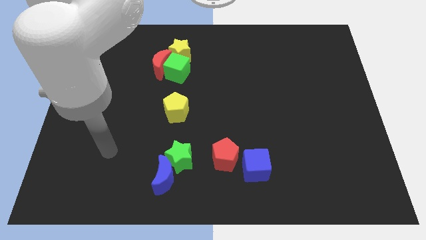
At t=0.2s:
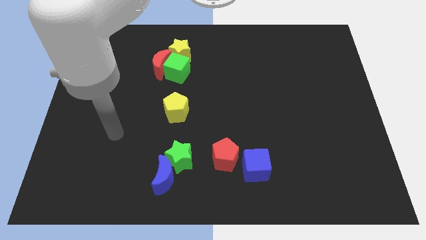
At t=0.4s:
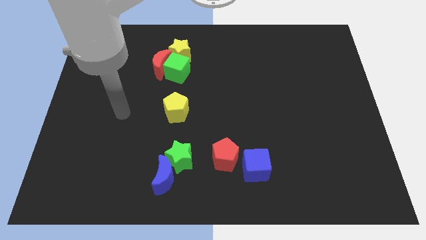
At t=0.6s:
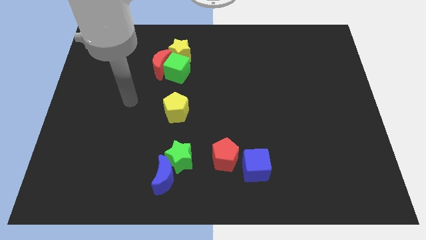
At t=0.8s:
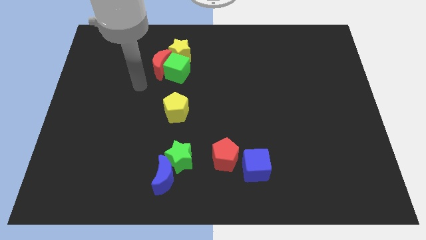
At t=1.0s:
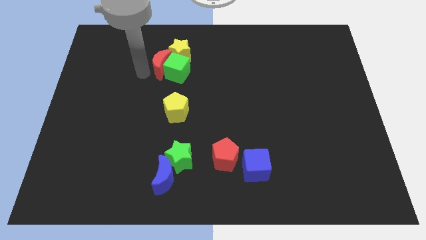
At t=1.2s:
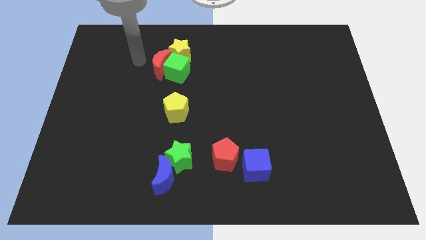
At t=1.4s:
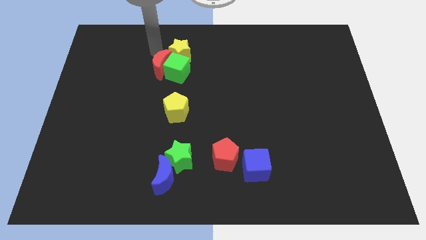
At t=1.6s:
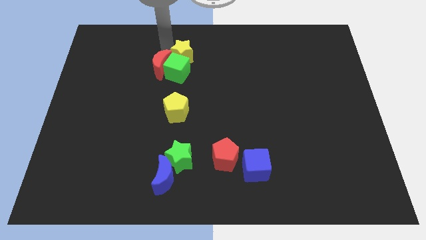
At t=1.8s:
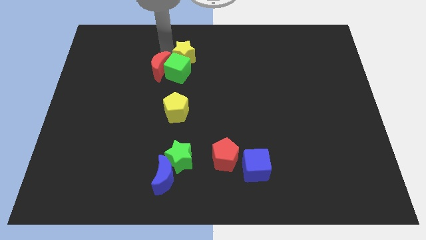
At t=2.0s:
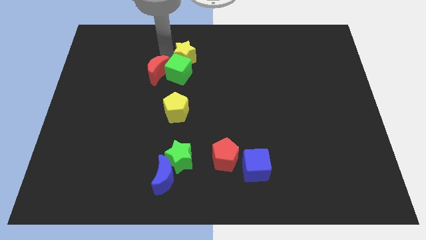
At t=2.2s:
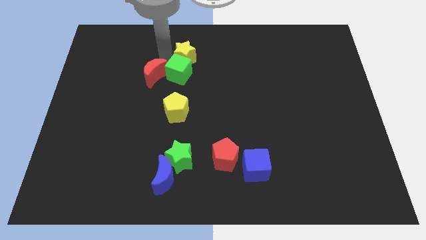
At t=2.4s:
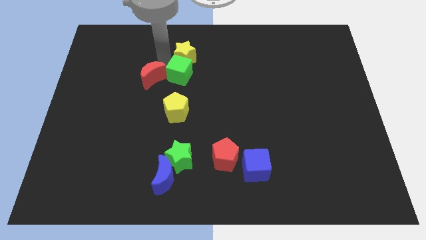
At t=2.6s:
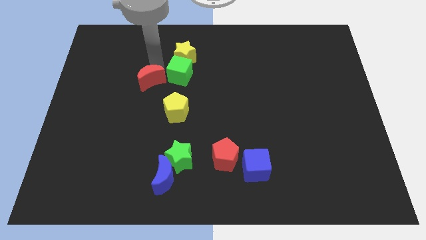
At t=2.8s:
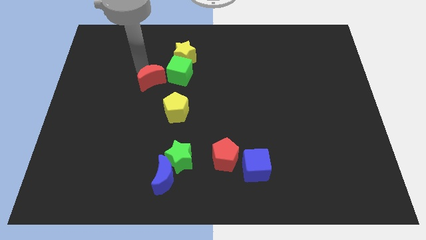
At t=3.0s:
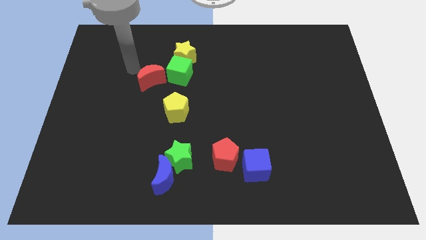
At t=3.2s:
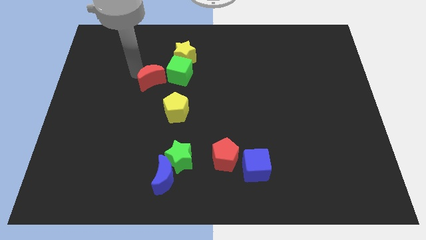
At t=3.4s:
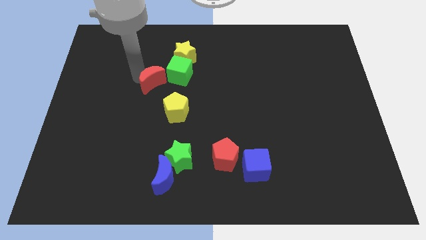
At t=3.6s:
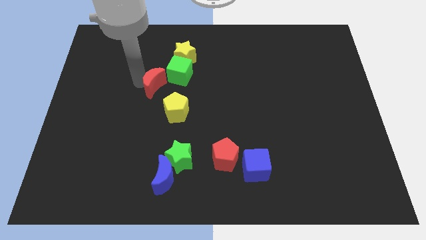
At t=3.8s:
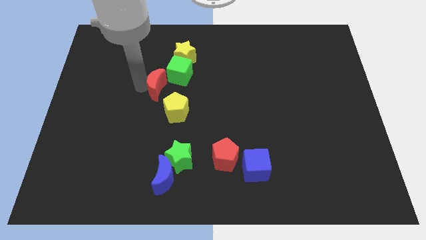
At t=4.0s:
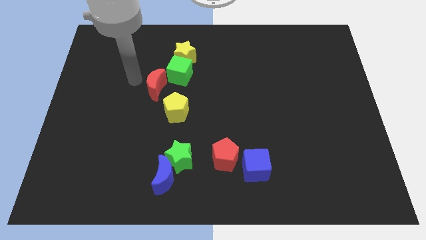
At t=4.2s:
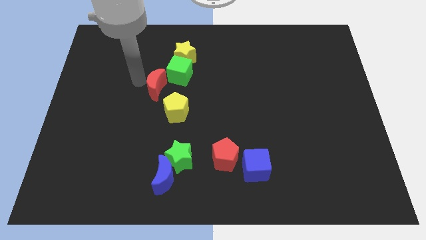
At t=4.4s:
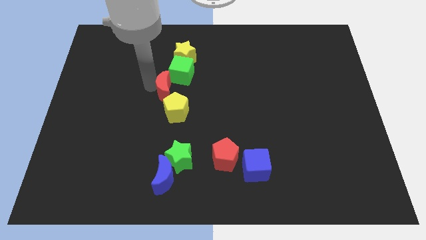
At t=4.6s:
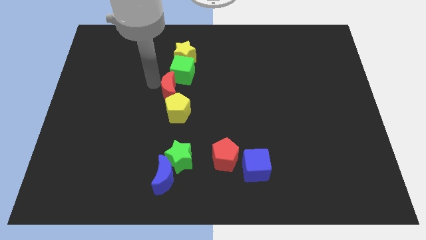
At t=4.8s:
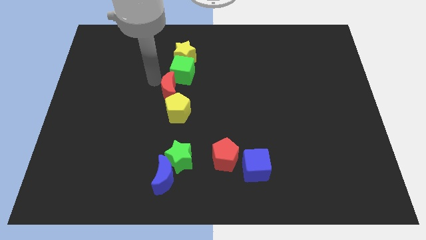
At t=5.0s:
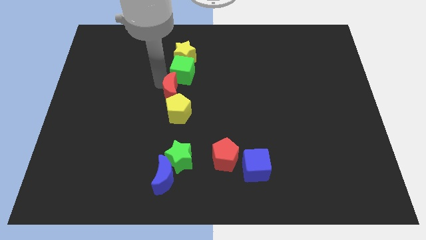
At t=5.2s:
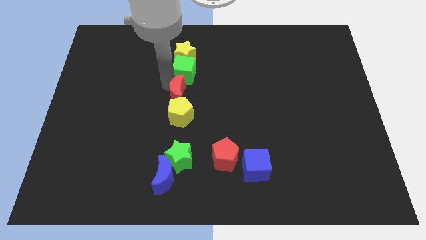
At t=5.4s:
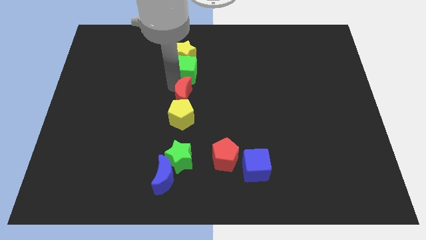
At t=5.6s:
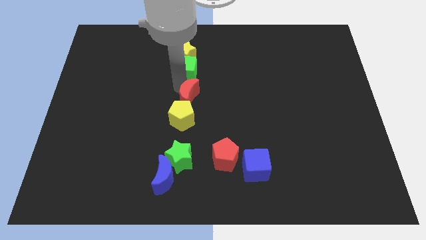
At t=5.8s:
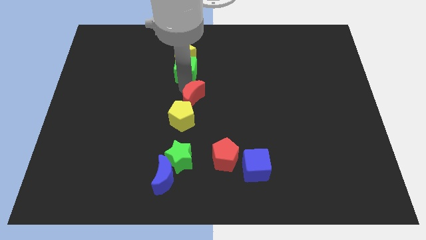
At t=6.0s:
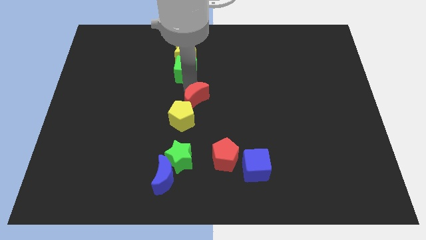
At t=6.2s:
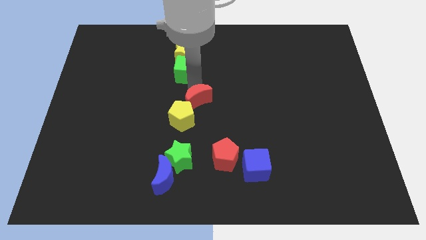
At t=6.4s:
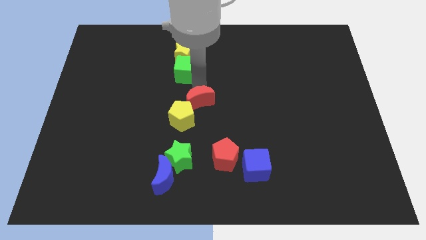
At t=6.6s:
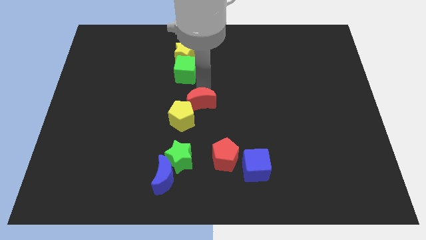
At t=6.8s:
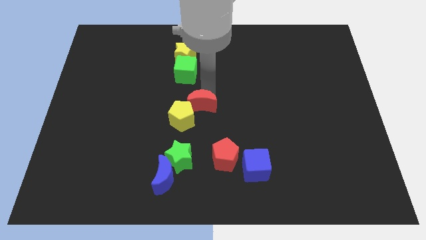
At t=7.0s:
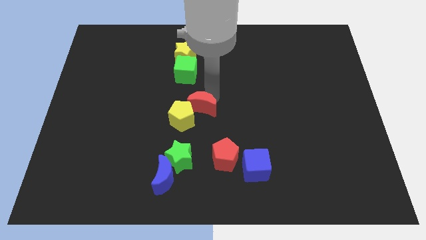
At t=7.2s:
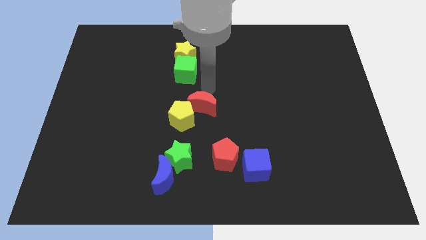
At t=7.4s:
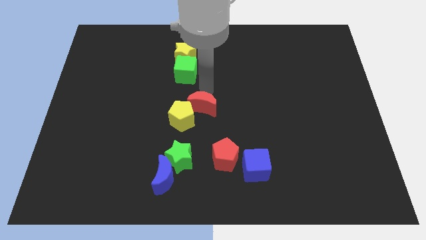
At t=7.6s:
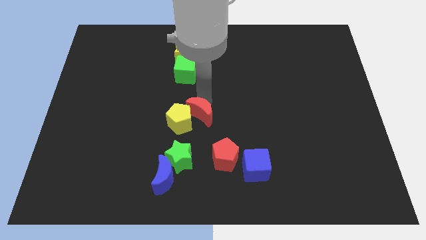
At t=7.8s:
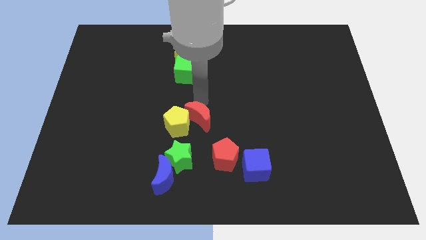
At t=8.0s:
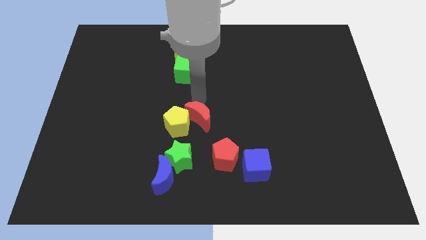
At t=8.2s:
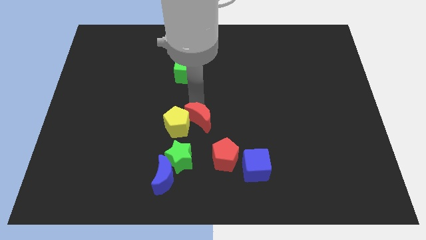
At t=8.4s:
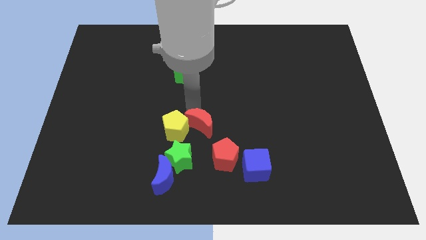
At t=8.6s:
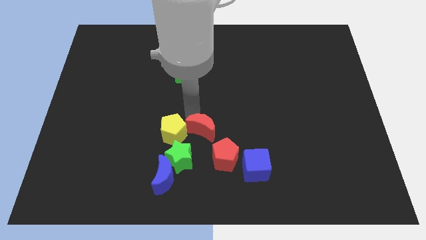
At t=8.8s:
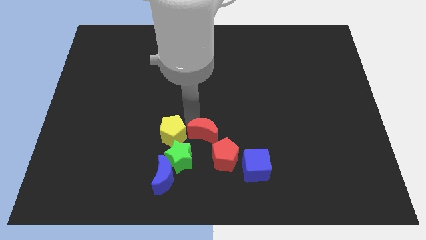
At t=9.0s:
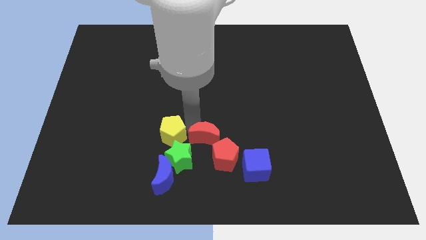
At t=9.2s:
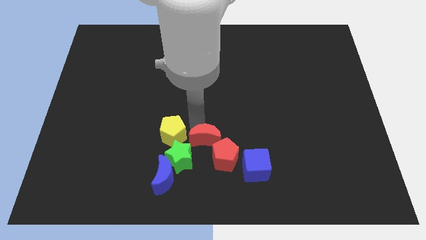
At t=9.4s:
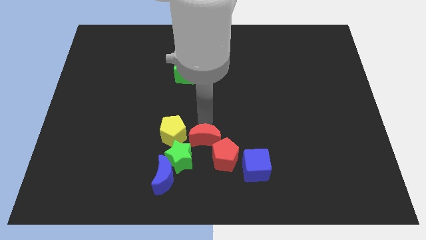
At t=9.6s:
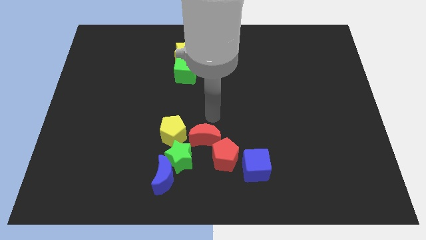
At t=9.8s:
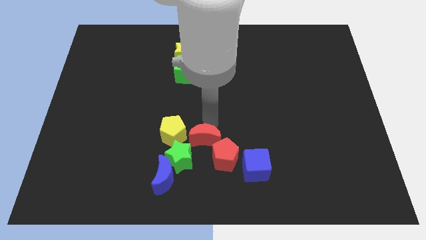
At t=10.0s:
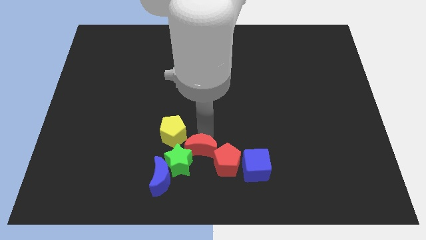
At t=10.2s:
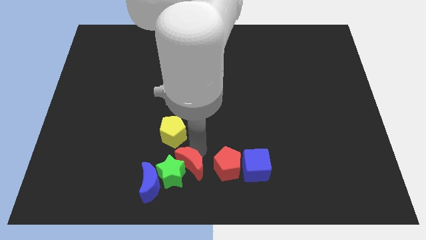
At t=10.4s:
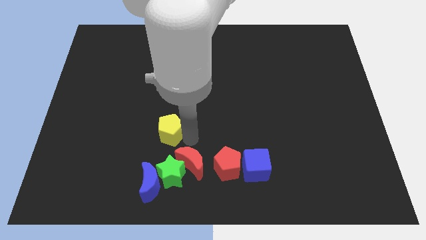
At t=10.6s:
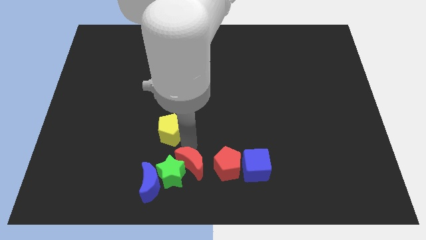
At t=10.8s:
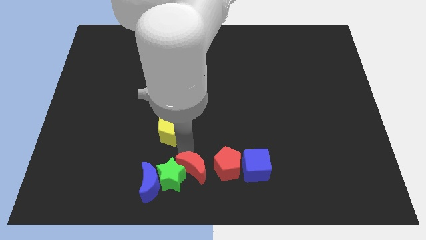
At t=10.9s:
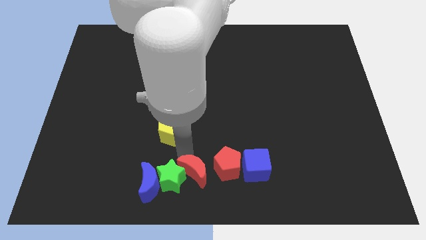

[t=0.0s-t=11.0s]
move the red moon diagonally down and to the right of the green star

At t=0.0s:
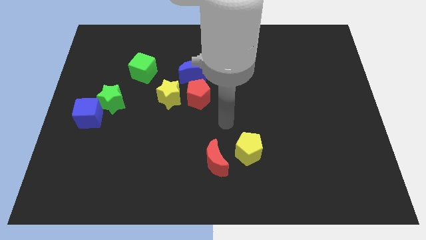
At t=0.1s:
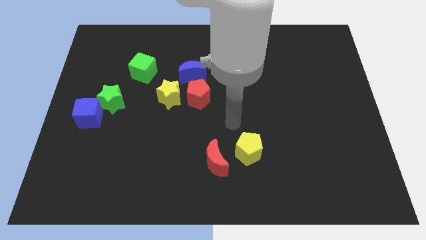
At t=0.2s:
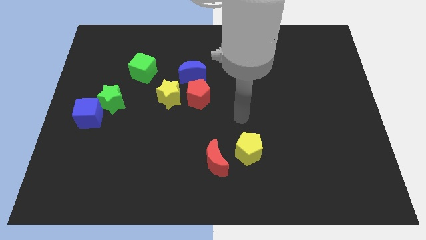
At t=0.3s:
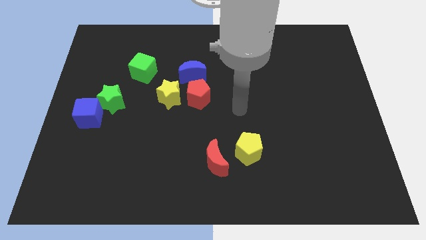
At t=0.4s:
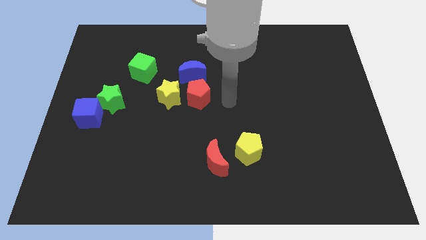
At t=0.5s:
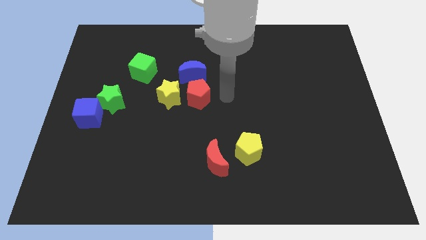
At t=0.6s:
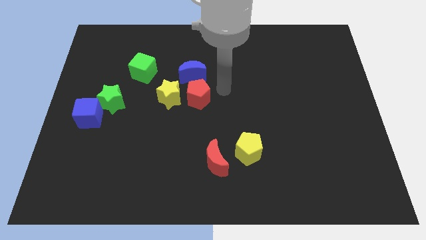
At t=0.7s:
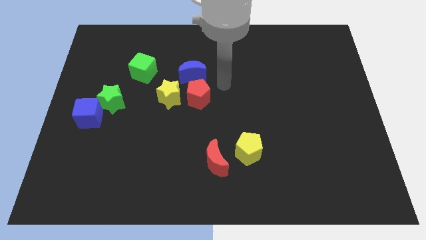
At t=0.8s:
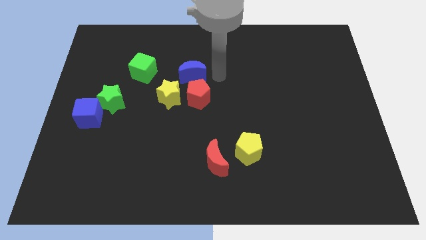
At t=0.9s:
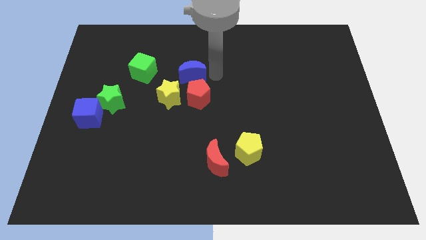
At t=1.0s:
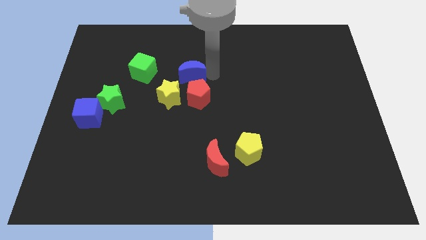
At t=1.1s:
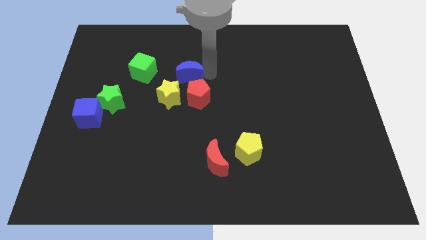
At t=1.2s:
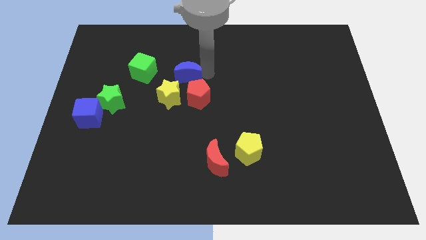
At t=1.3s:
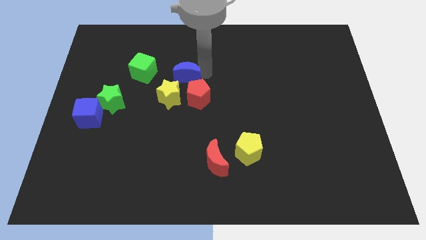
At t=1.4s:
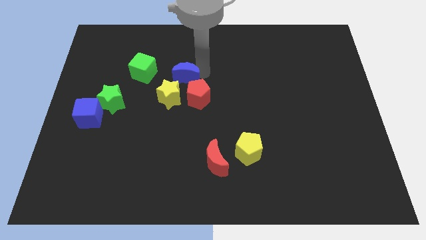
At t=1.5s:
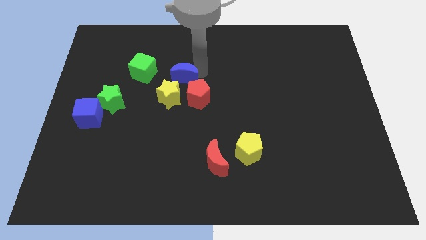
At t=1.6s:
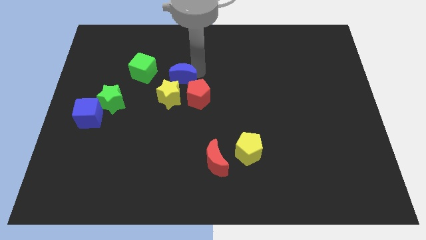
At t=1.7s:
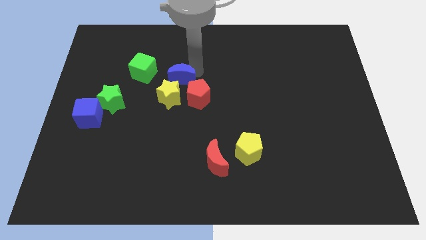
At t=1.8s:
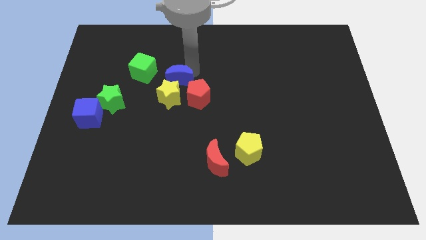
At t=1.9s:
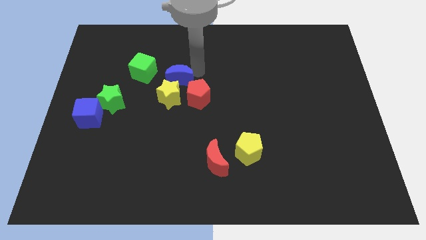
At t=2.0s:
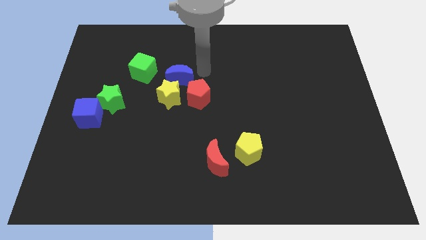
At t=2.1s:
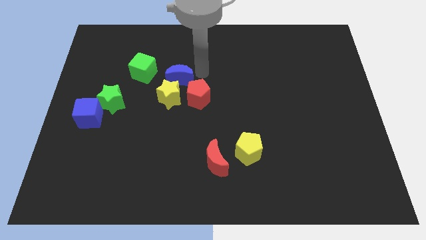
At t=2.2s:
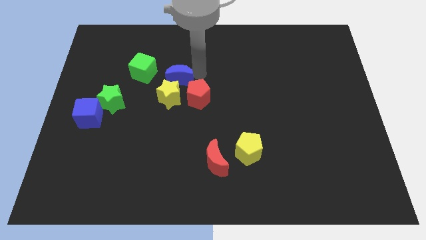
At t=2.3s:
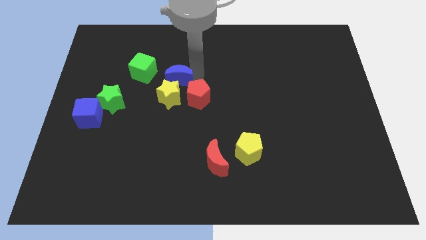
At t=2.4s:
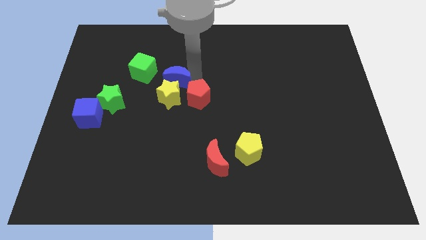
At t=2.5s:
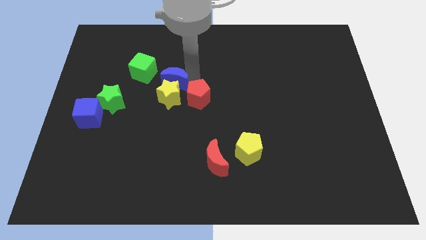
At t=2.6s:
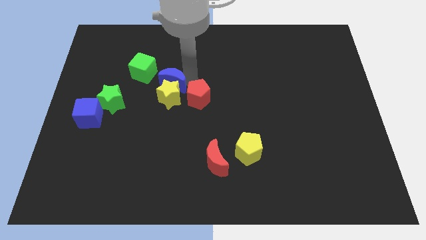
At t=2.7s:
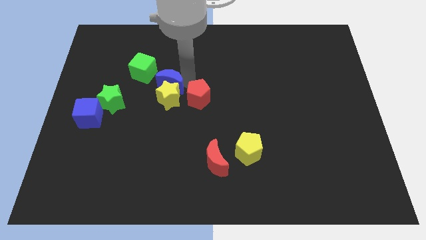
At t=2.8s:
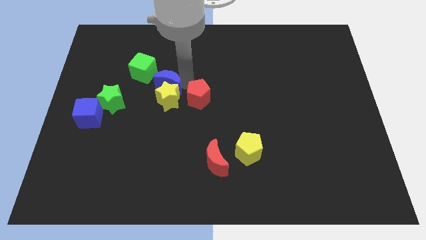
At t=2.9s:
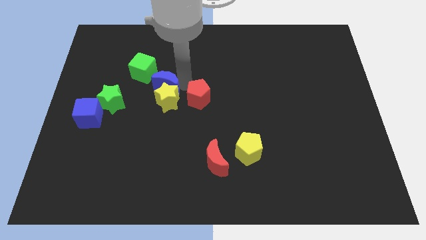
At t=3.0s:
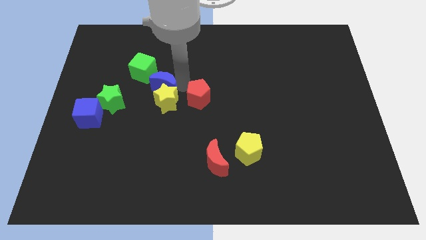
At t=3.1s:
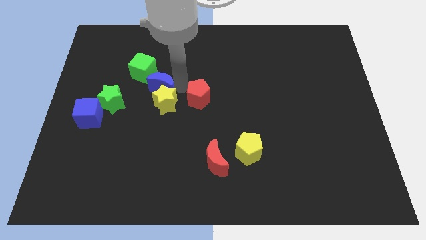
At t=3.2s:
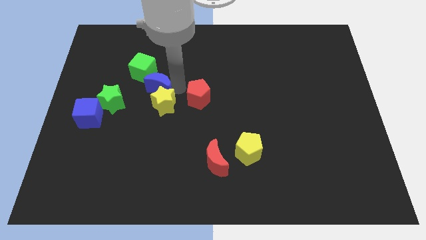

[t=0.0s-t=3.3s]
put the blue moon below the green cube
